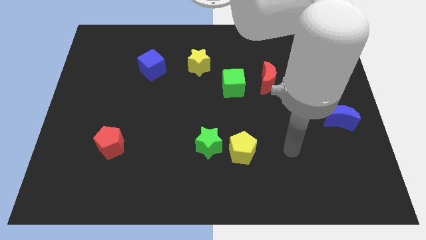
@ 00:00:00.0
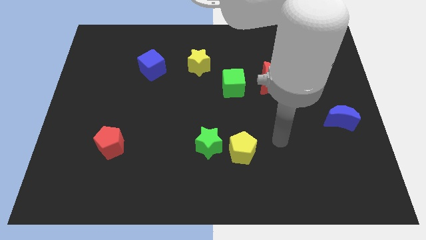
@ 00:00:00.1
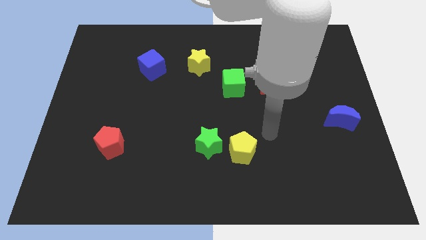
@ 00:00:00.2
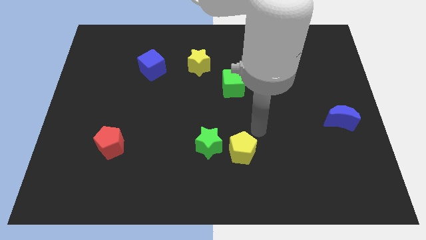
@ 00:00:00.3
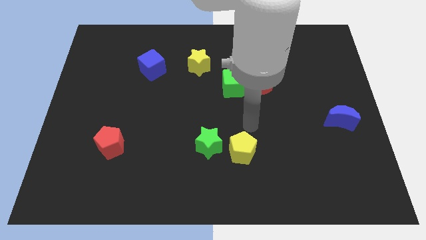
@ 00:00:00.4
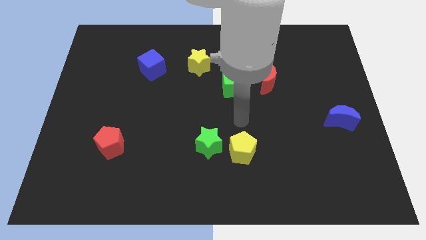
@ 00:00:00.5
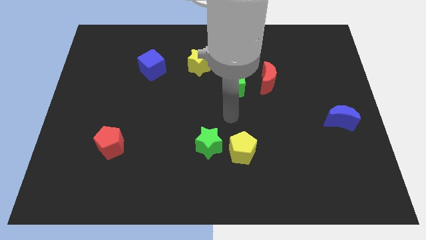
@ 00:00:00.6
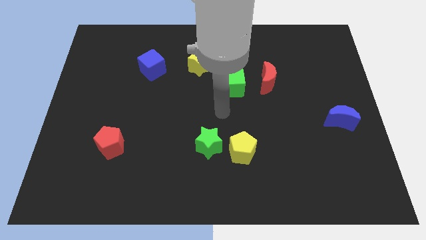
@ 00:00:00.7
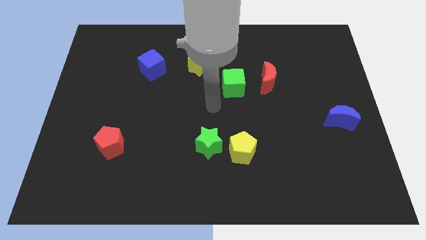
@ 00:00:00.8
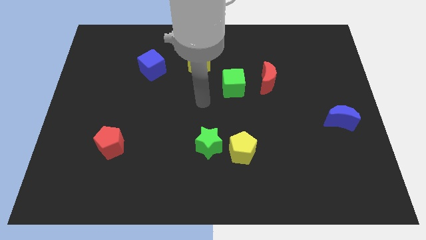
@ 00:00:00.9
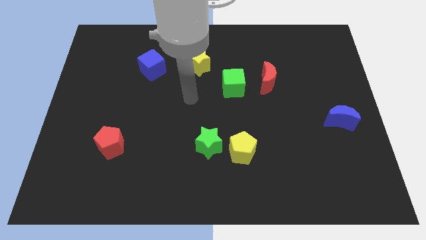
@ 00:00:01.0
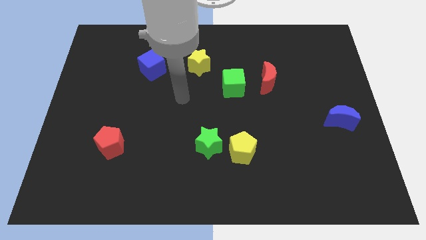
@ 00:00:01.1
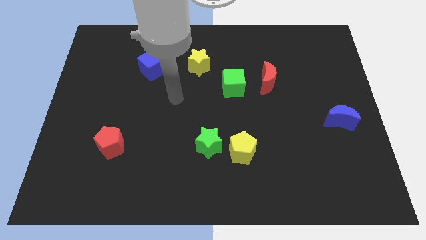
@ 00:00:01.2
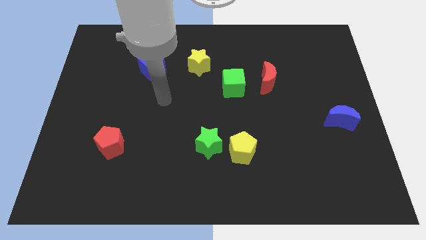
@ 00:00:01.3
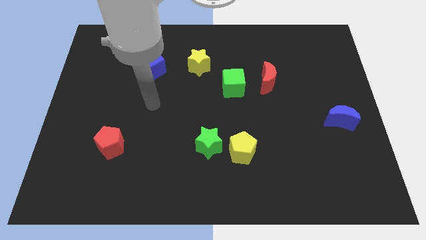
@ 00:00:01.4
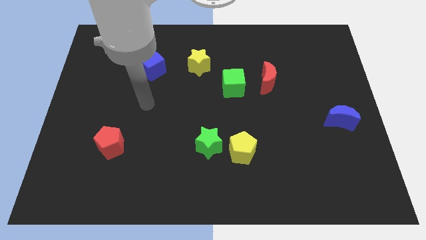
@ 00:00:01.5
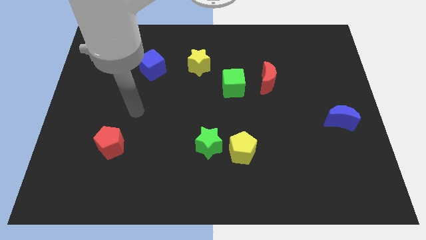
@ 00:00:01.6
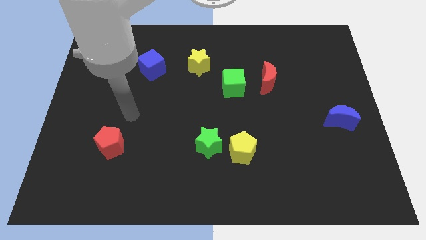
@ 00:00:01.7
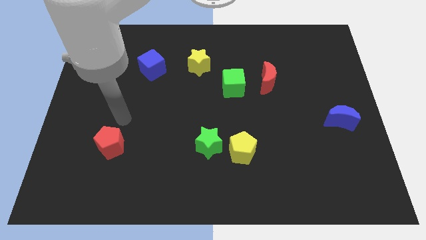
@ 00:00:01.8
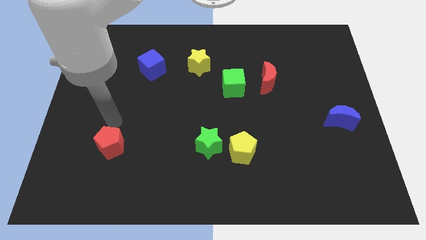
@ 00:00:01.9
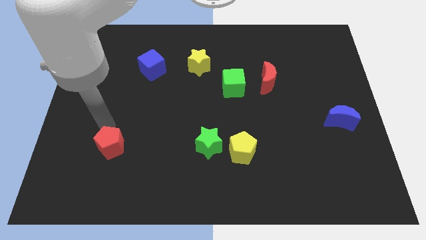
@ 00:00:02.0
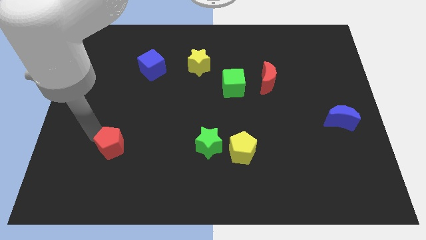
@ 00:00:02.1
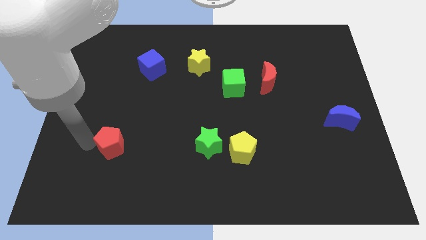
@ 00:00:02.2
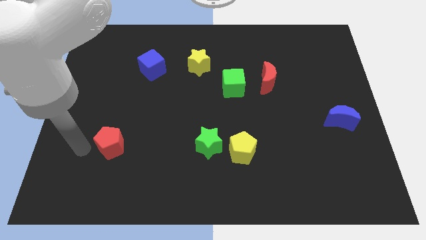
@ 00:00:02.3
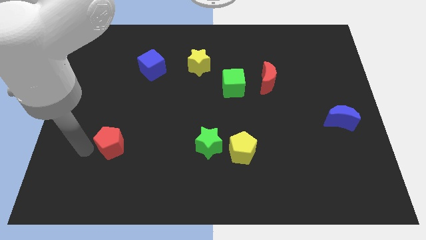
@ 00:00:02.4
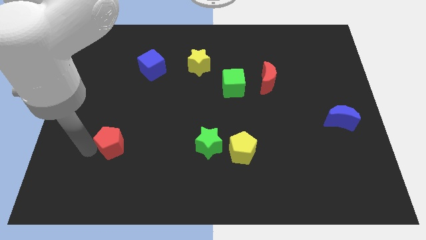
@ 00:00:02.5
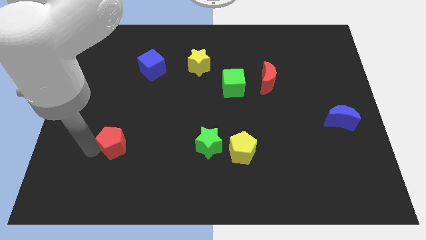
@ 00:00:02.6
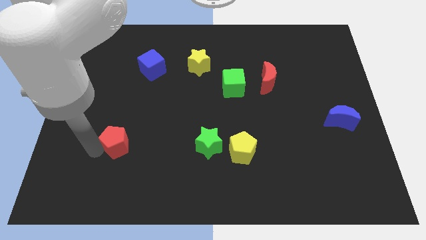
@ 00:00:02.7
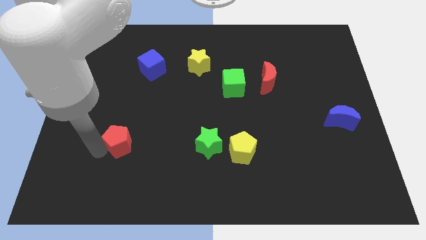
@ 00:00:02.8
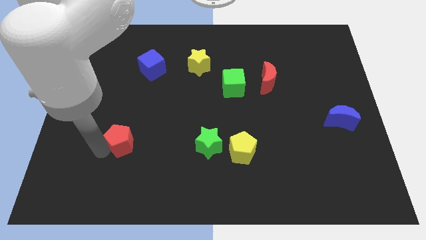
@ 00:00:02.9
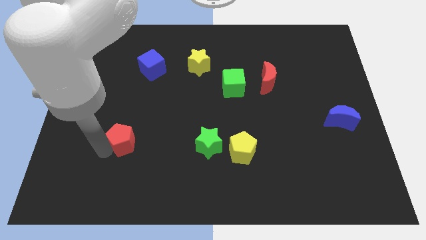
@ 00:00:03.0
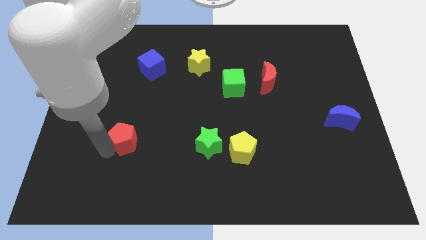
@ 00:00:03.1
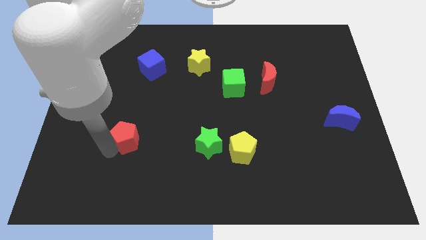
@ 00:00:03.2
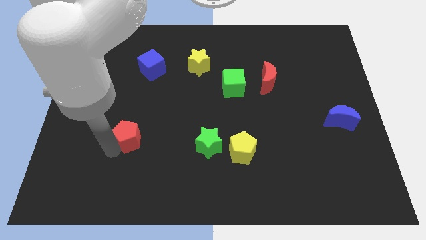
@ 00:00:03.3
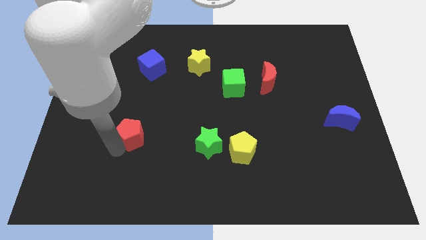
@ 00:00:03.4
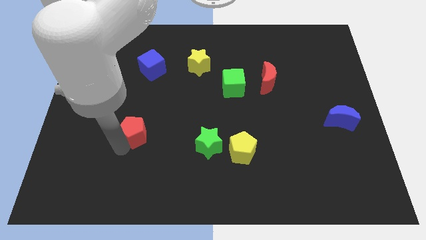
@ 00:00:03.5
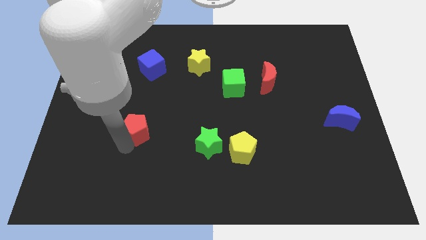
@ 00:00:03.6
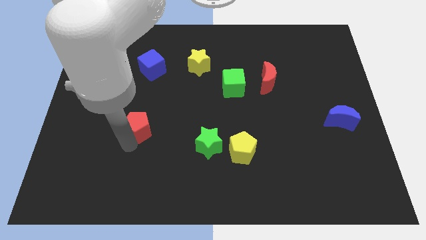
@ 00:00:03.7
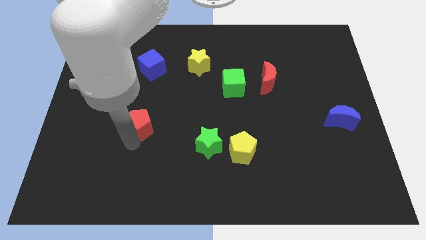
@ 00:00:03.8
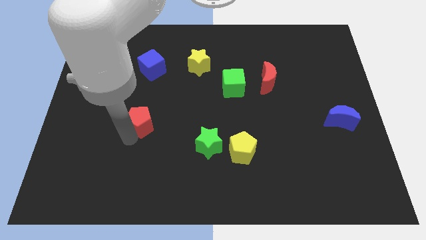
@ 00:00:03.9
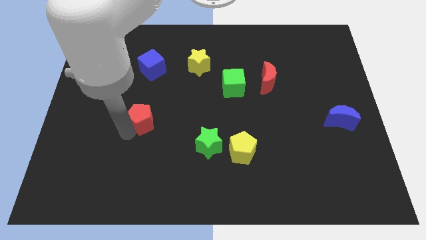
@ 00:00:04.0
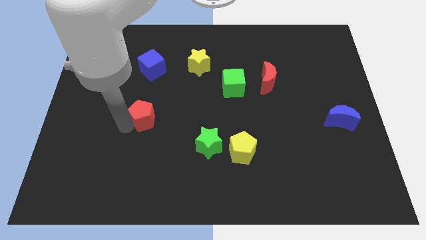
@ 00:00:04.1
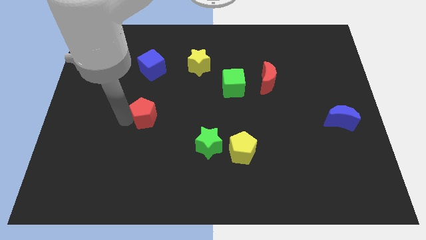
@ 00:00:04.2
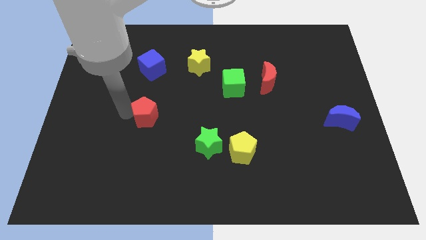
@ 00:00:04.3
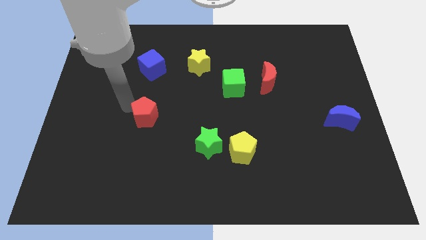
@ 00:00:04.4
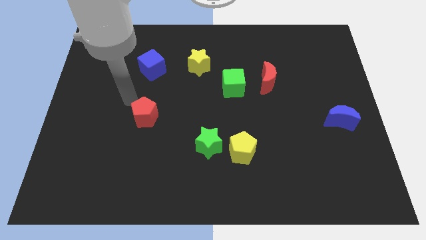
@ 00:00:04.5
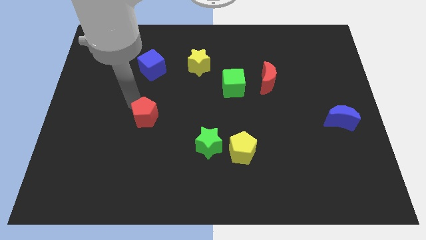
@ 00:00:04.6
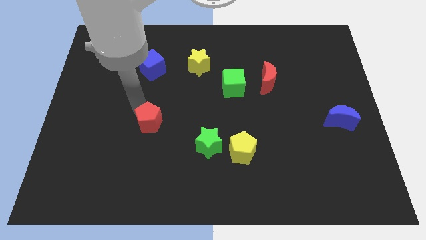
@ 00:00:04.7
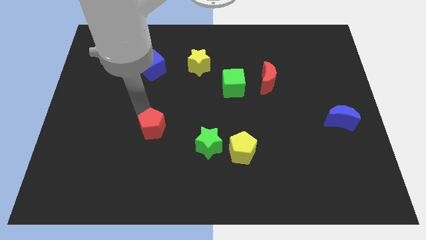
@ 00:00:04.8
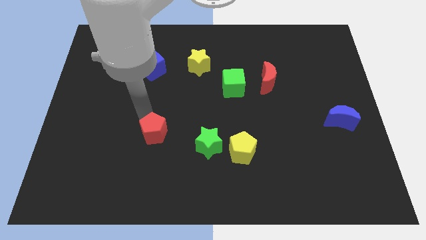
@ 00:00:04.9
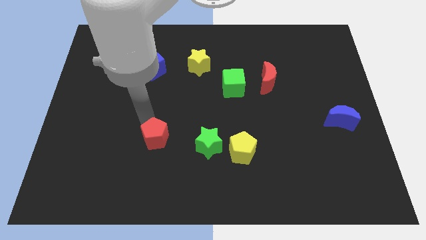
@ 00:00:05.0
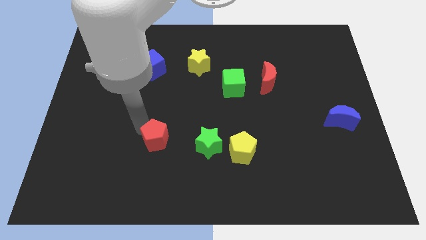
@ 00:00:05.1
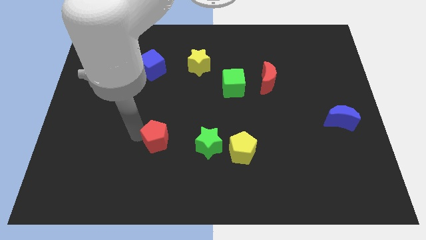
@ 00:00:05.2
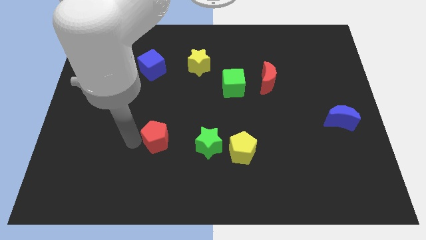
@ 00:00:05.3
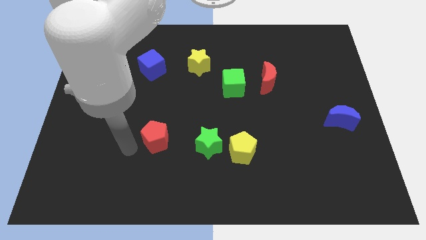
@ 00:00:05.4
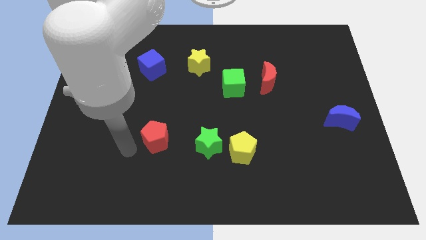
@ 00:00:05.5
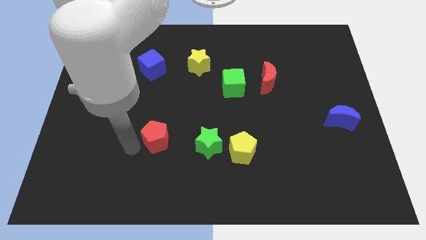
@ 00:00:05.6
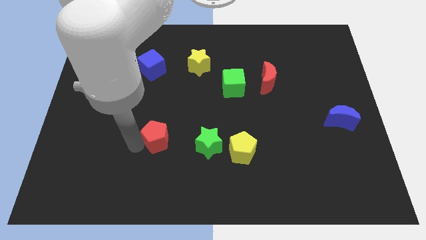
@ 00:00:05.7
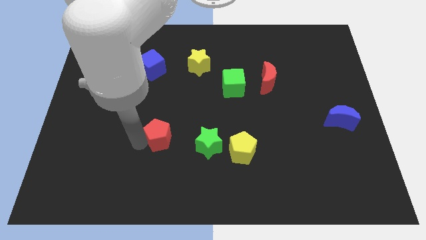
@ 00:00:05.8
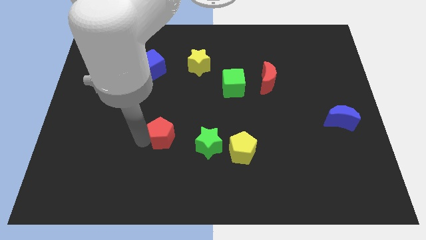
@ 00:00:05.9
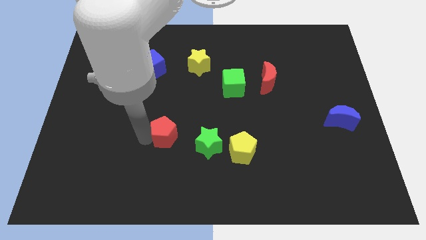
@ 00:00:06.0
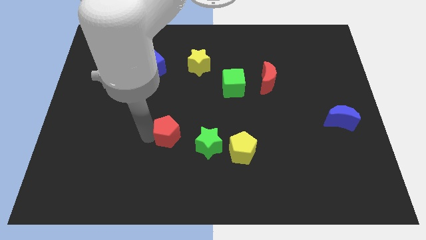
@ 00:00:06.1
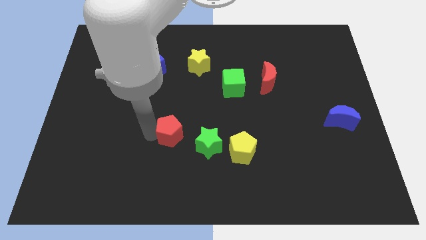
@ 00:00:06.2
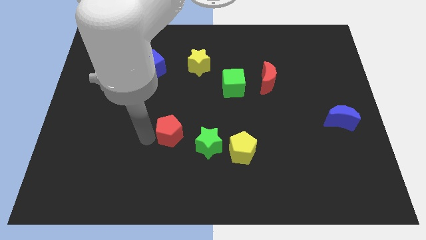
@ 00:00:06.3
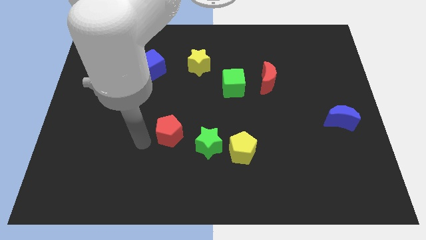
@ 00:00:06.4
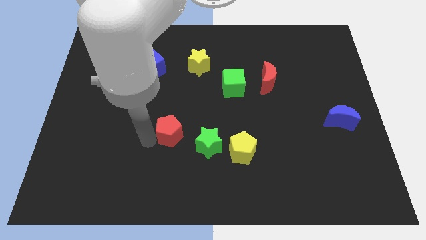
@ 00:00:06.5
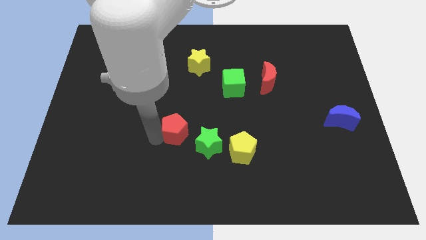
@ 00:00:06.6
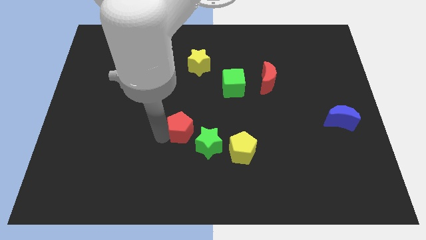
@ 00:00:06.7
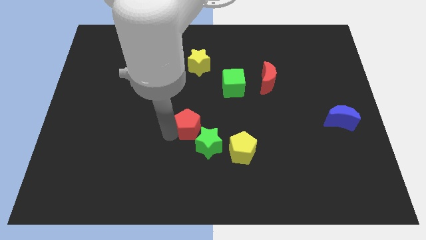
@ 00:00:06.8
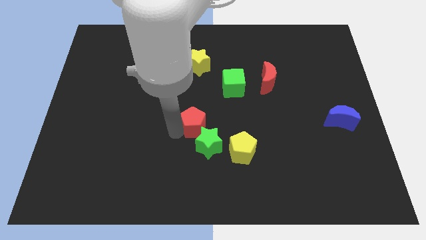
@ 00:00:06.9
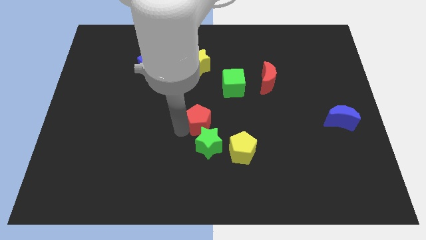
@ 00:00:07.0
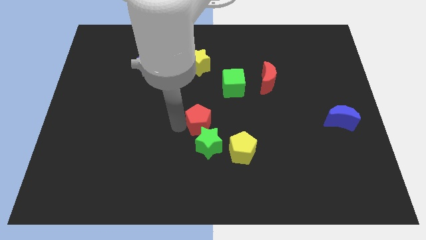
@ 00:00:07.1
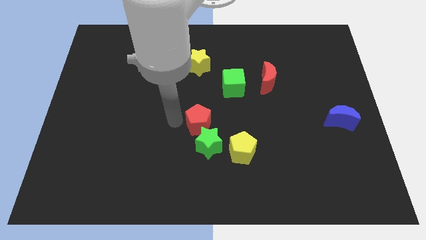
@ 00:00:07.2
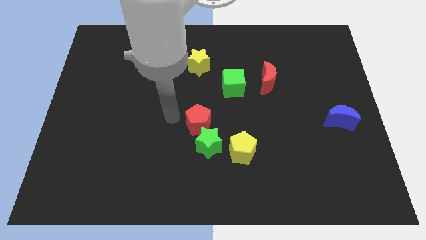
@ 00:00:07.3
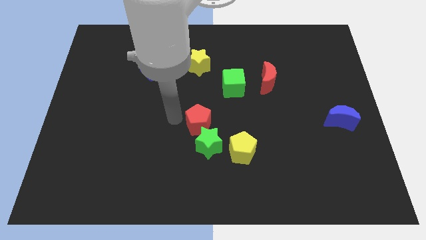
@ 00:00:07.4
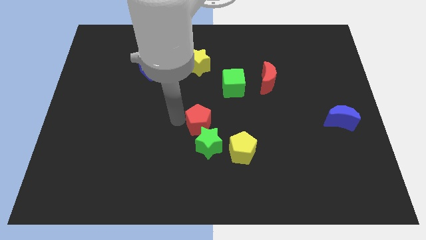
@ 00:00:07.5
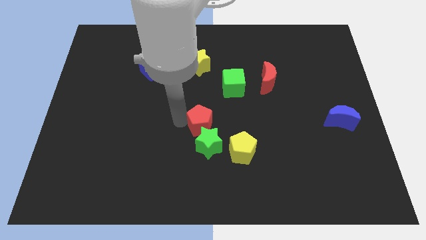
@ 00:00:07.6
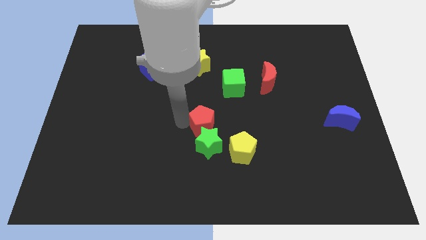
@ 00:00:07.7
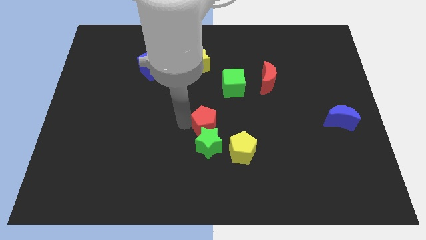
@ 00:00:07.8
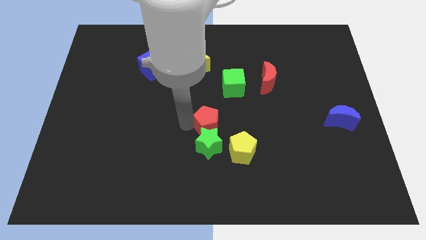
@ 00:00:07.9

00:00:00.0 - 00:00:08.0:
move the red pentagon to the right
